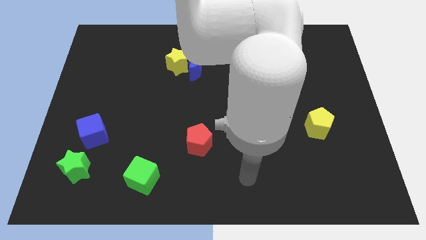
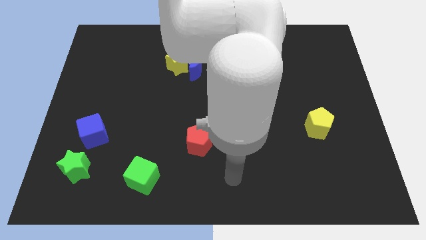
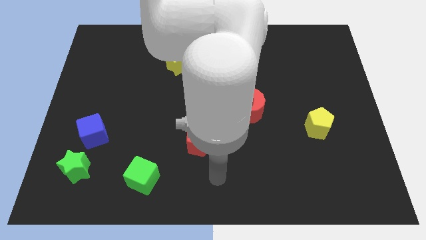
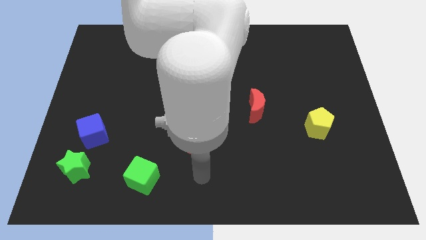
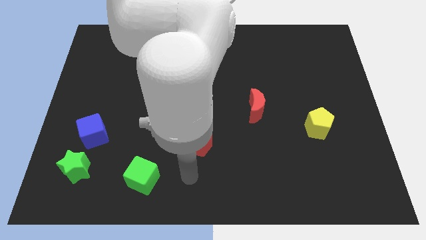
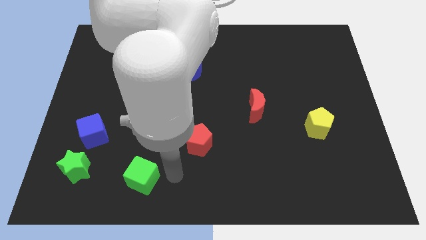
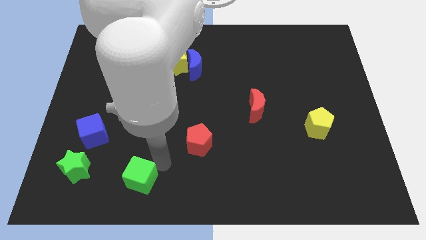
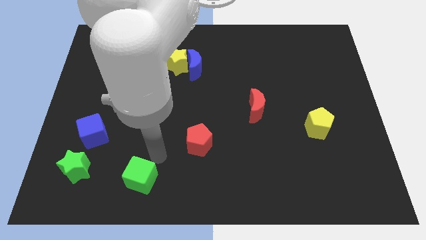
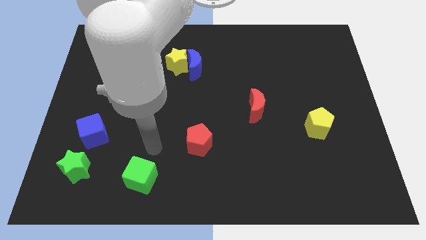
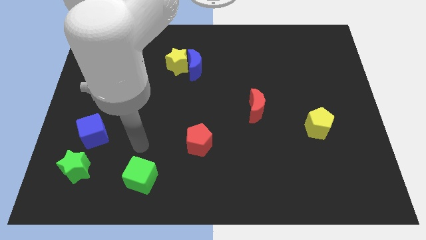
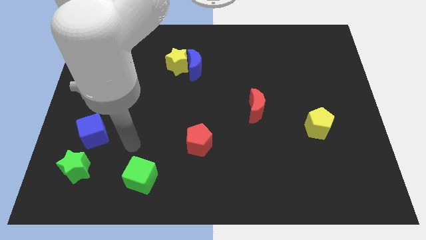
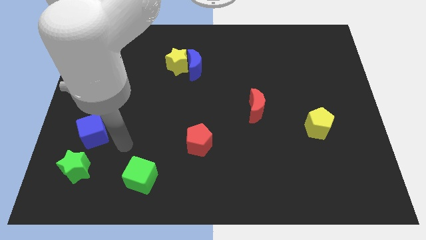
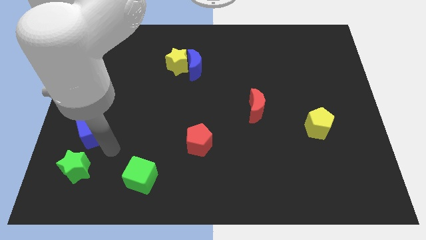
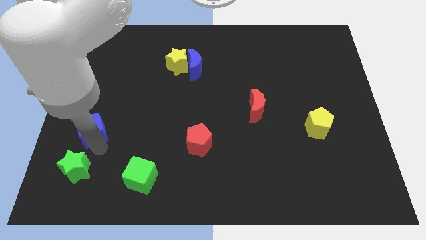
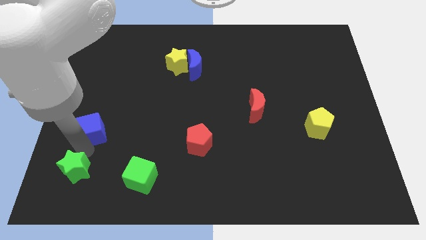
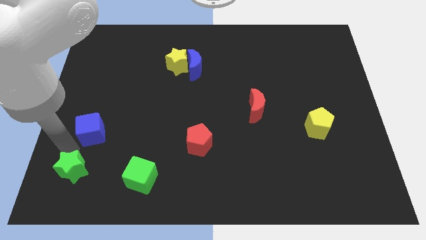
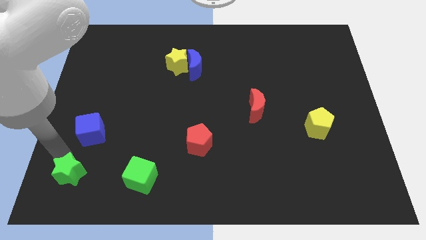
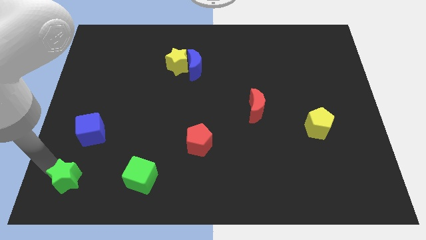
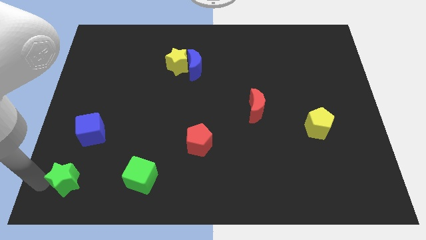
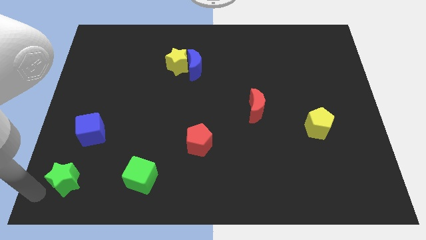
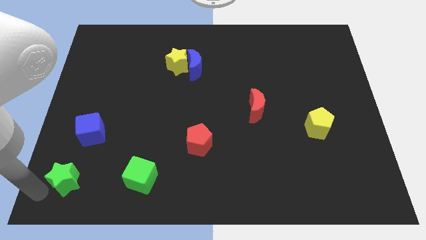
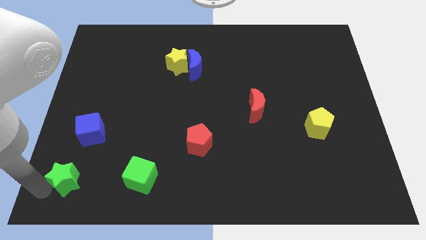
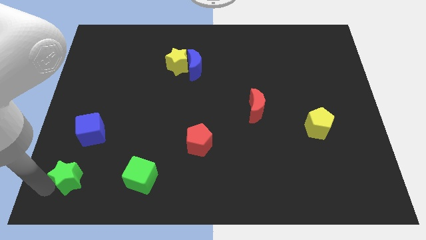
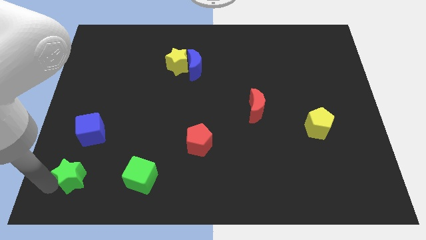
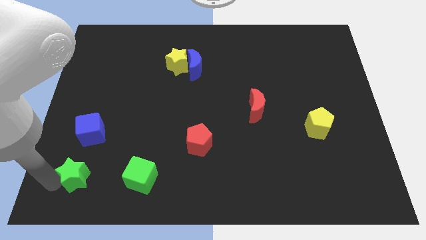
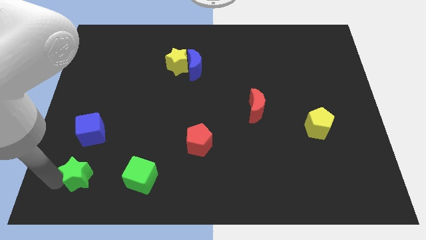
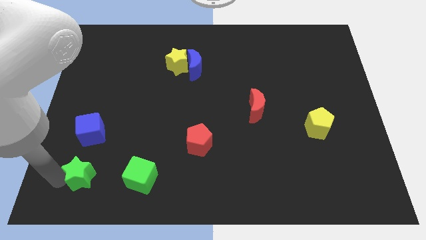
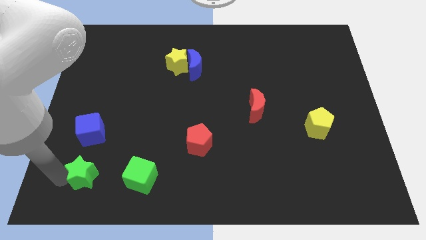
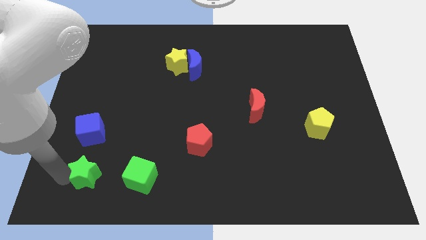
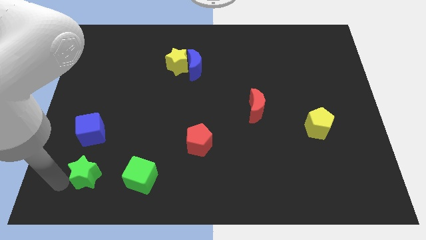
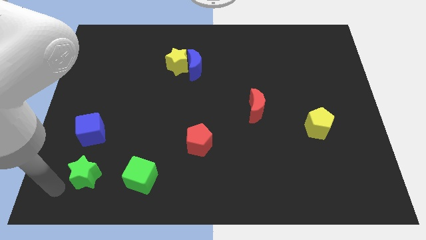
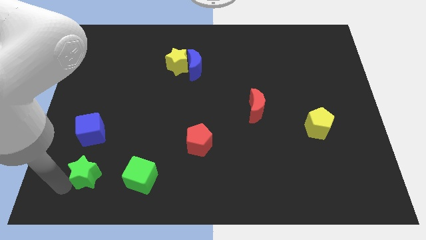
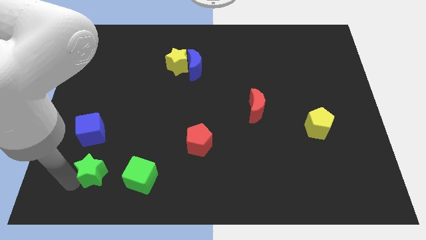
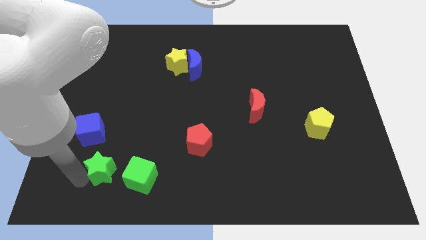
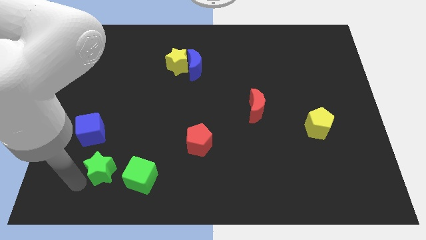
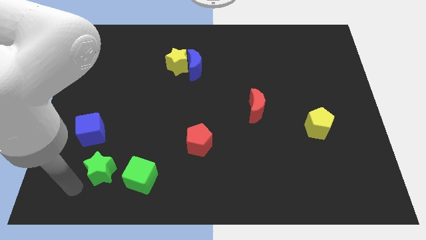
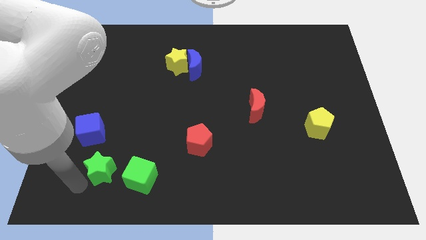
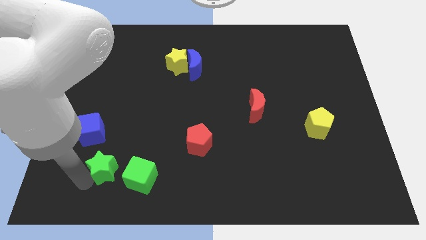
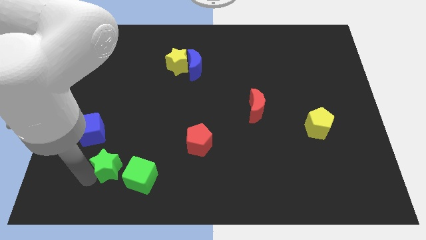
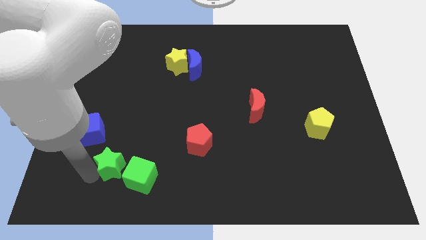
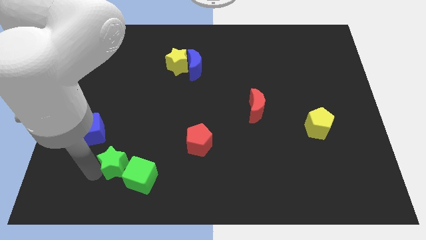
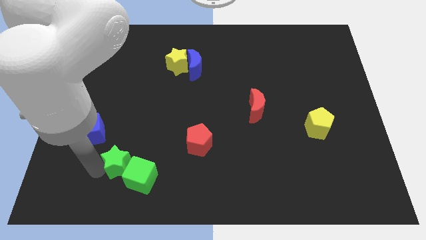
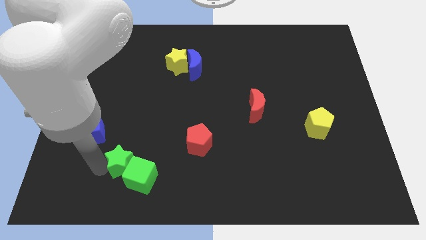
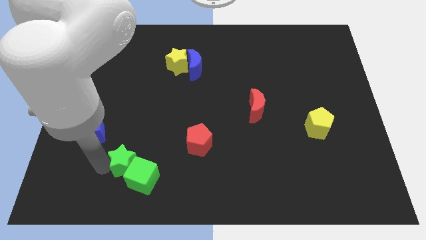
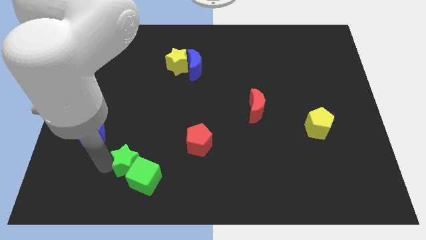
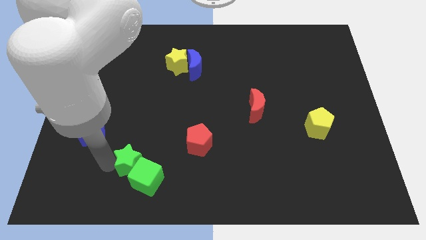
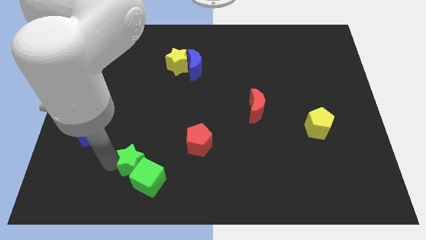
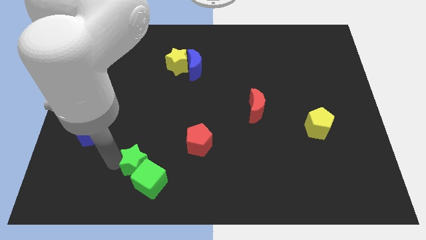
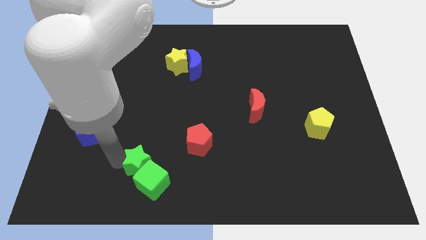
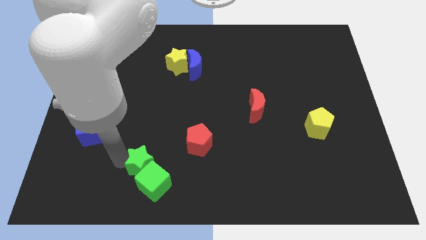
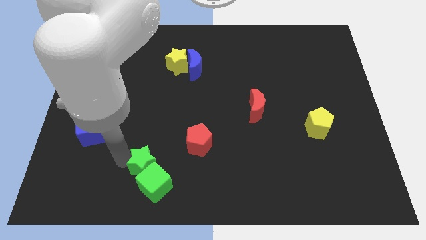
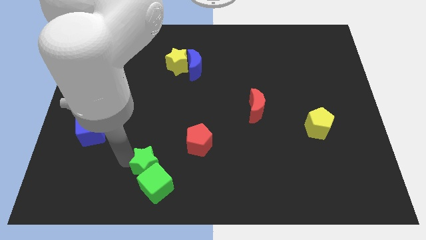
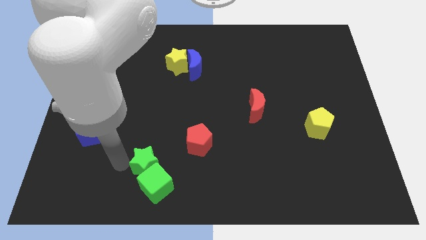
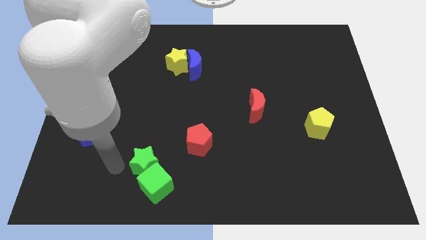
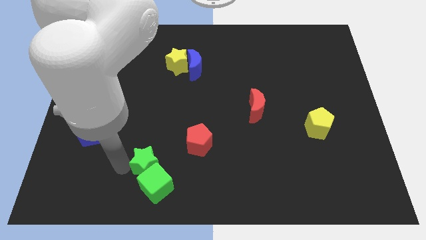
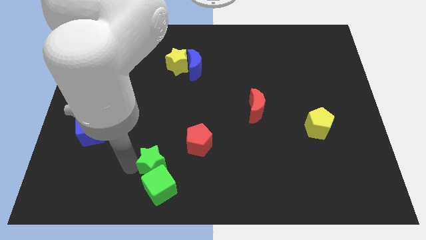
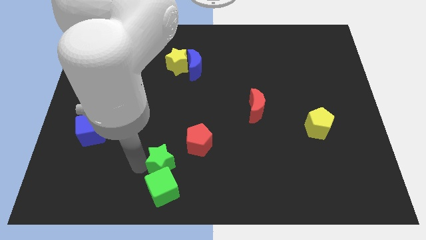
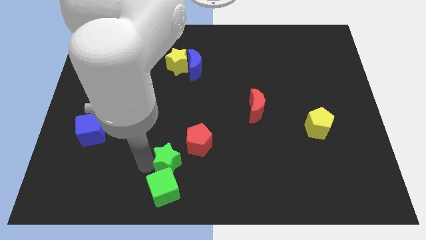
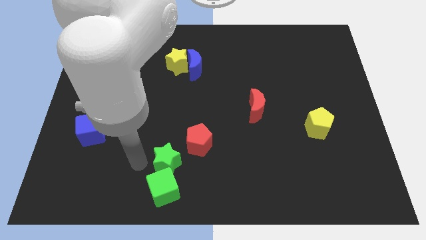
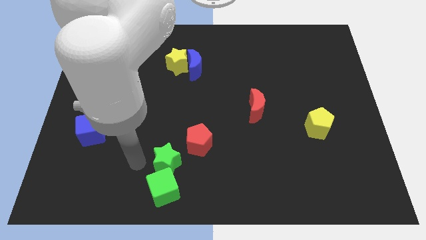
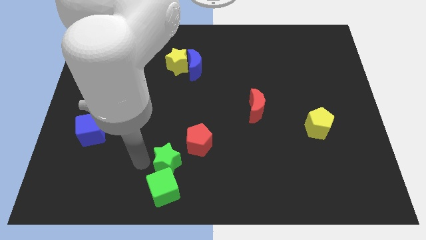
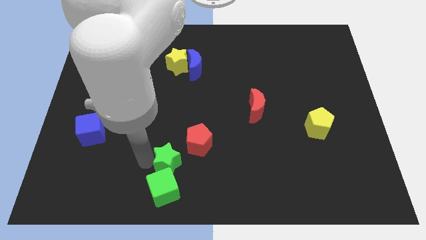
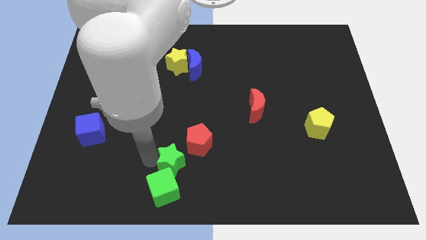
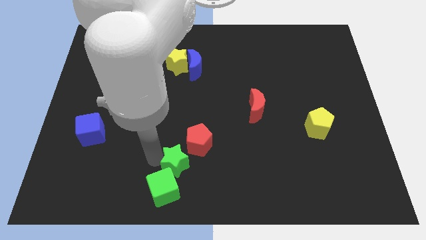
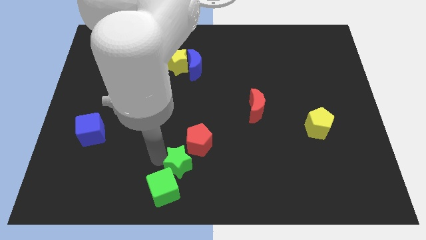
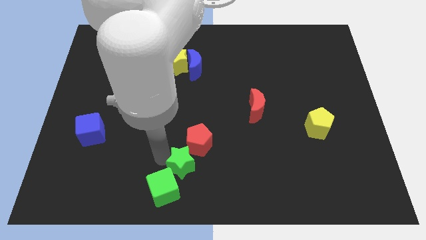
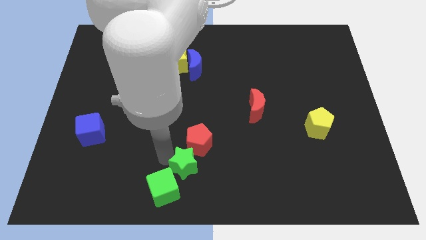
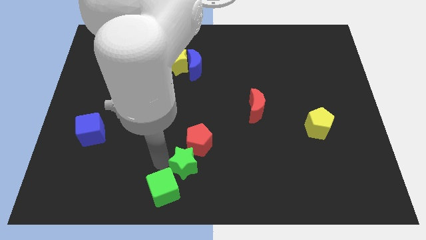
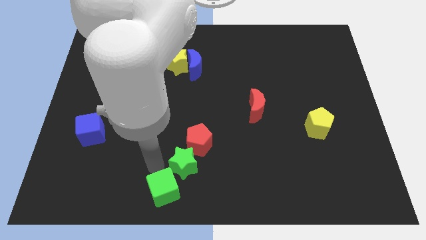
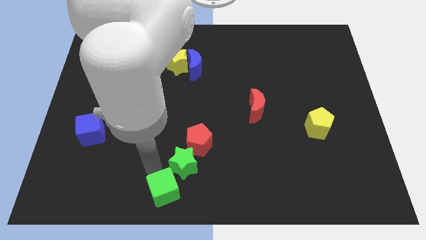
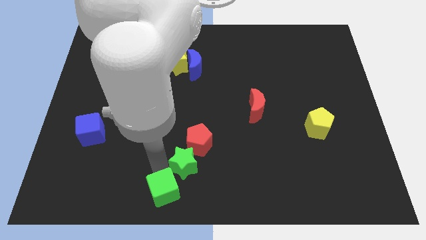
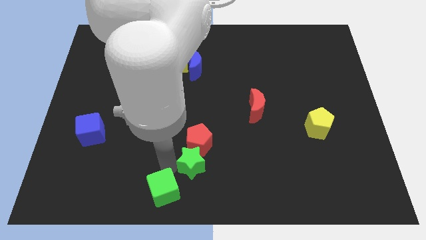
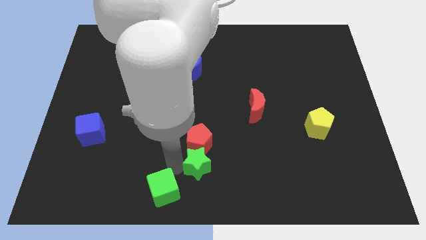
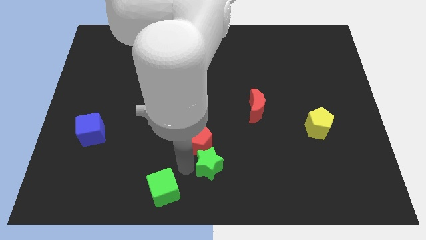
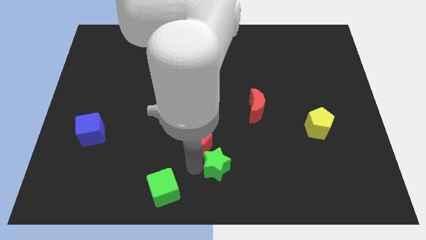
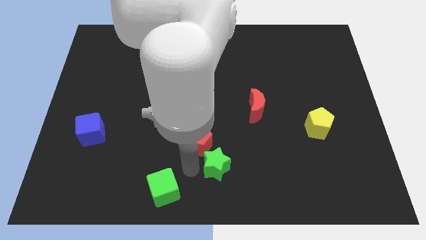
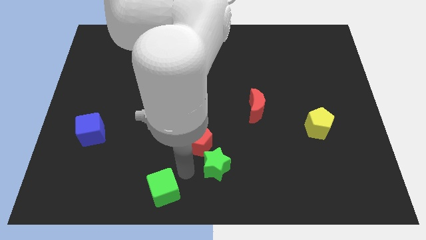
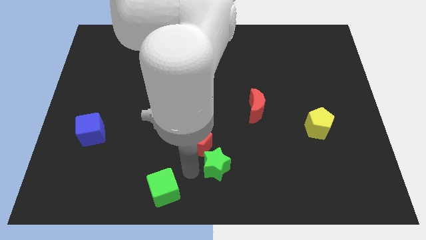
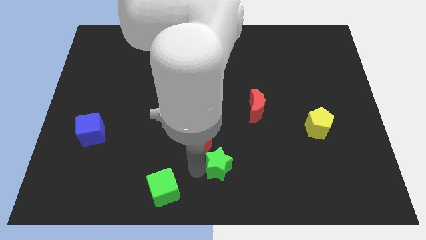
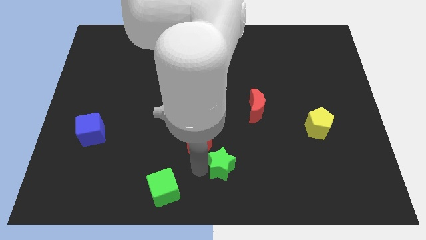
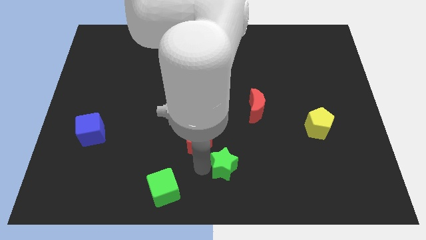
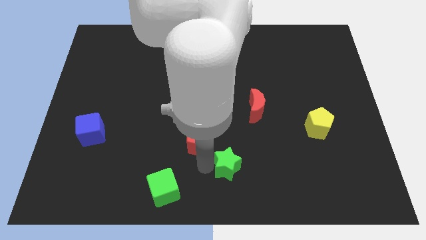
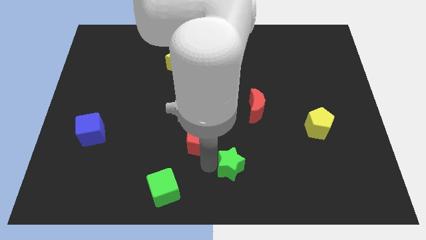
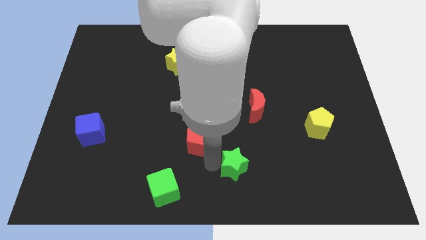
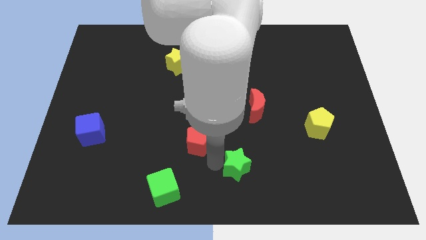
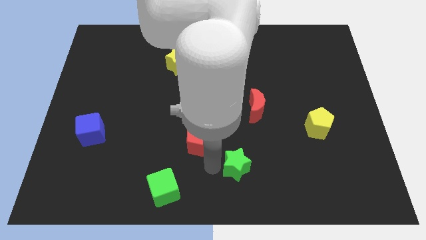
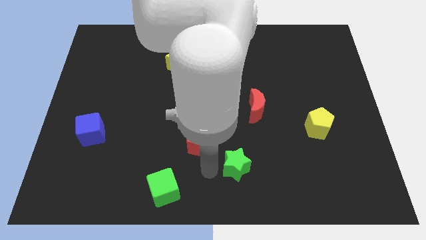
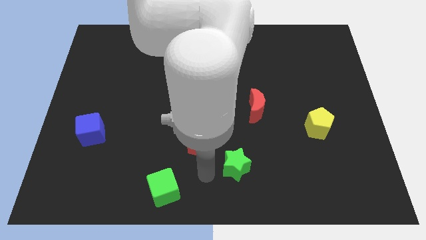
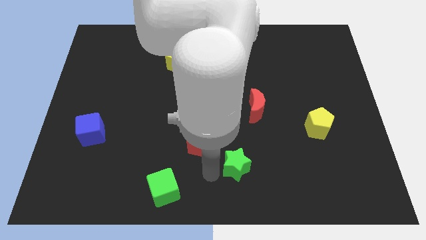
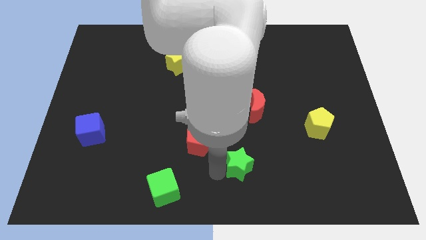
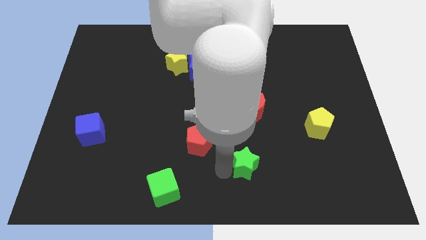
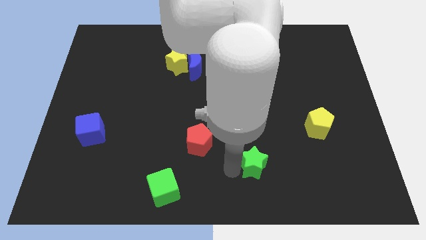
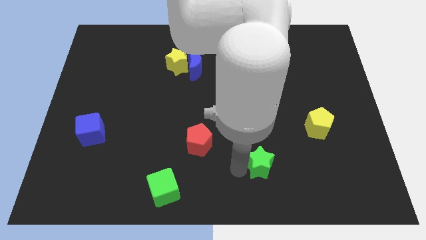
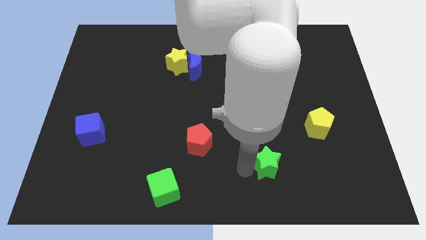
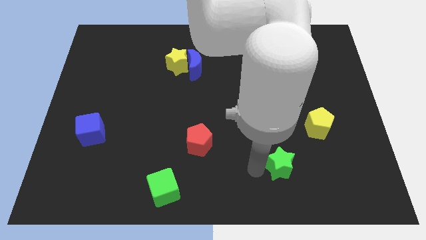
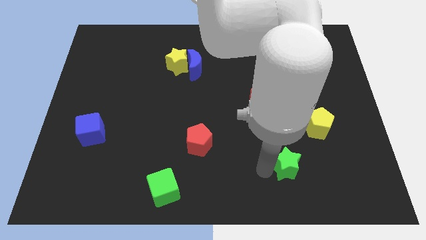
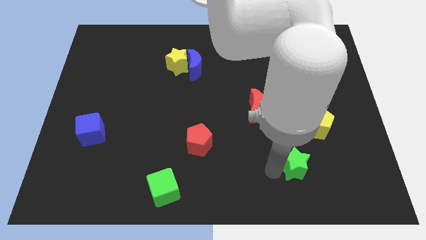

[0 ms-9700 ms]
push the green star to the bottom left of the yellow pentagon
